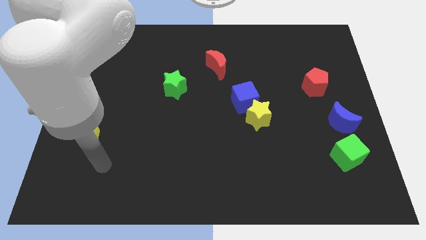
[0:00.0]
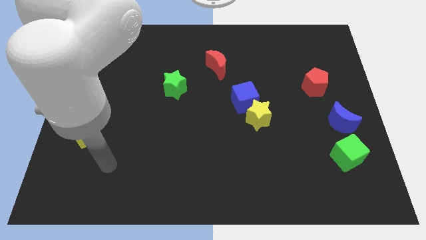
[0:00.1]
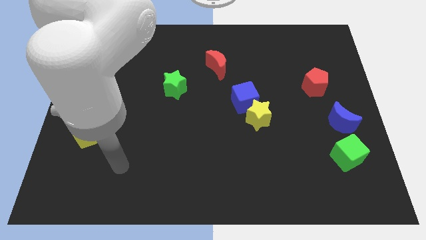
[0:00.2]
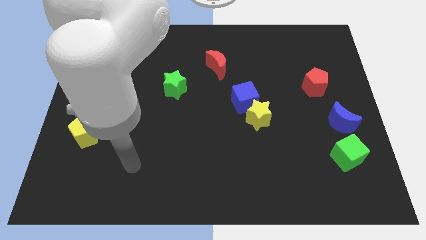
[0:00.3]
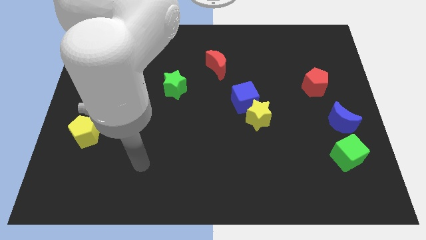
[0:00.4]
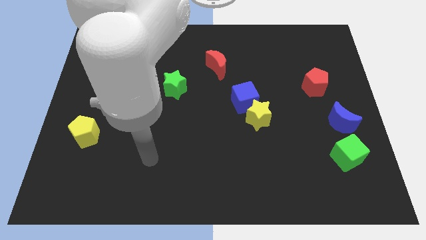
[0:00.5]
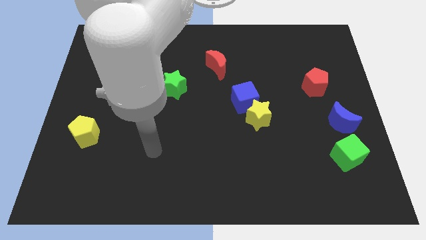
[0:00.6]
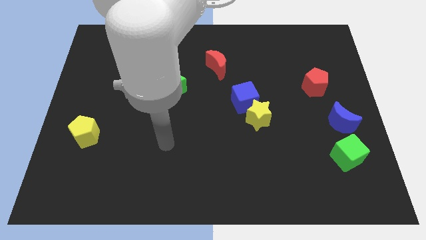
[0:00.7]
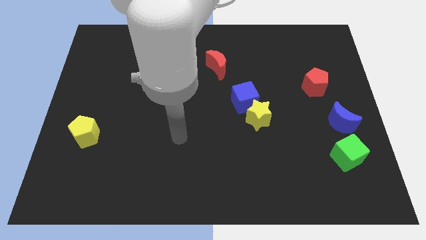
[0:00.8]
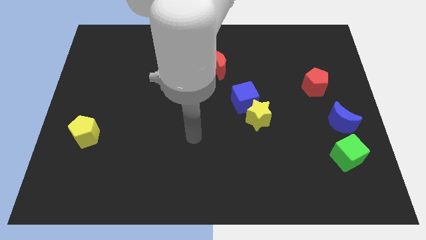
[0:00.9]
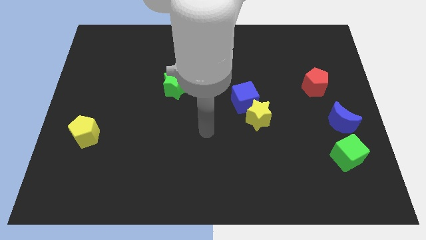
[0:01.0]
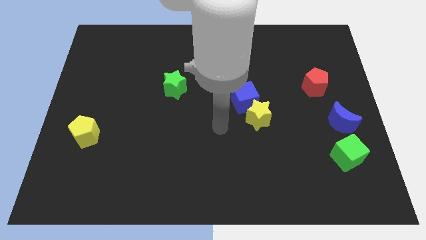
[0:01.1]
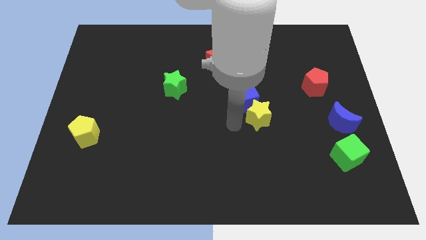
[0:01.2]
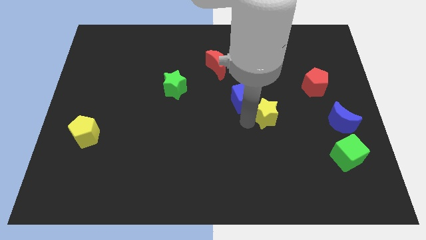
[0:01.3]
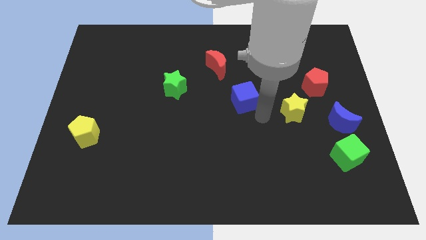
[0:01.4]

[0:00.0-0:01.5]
separate the blue cube from the yellow star

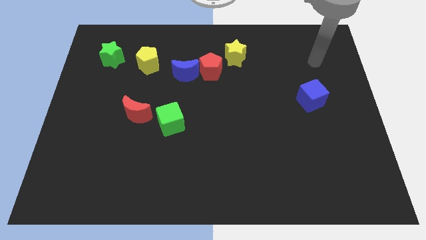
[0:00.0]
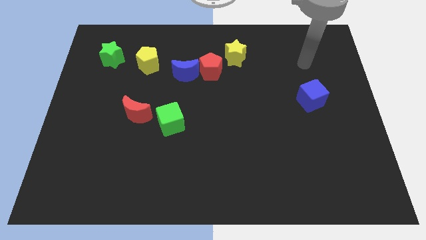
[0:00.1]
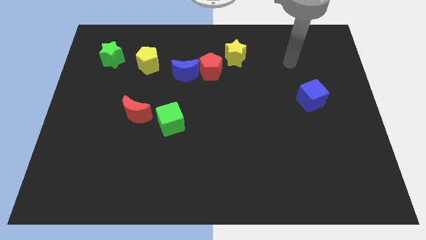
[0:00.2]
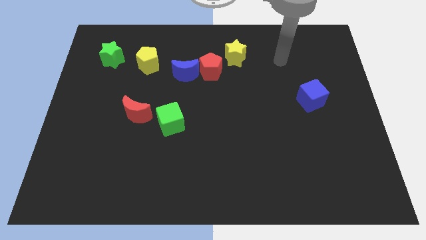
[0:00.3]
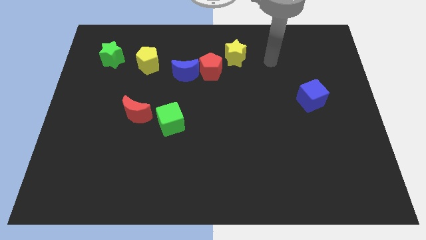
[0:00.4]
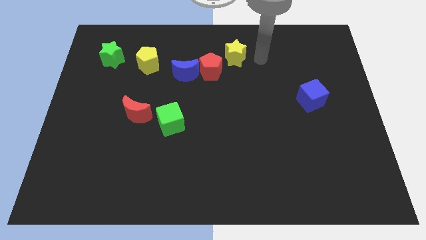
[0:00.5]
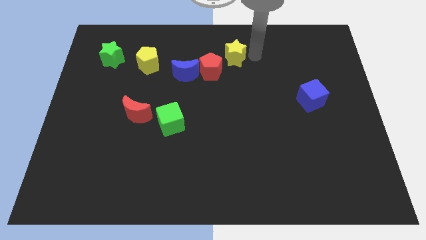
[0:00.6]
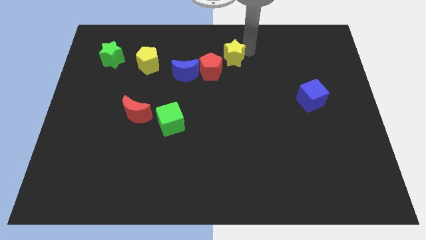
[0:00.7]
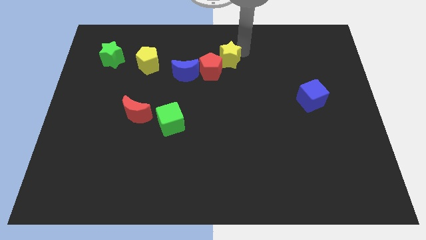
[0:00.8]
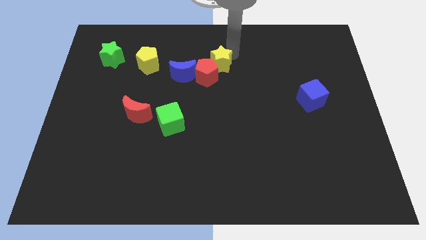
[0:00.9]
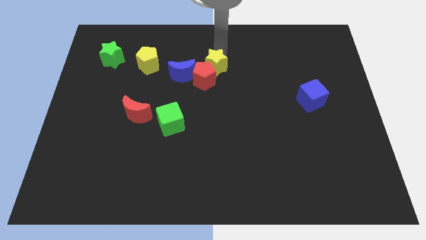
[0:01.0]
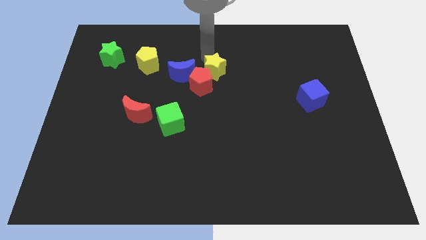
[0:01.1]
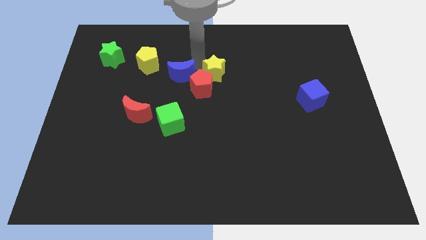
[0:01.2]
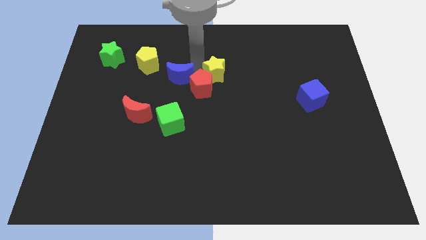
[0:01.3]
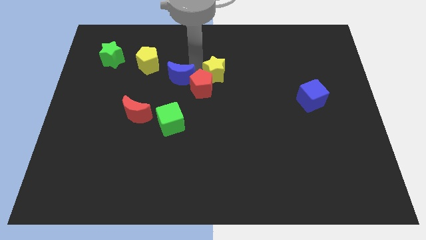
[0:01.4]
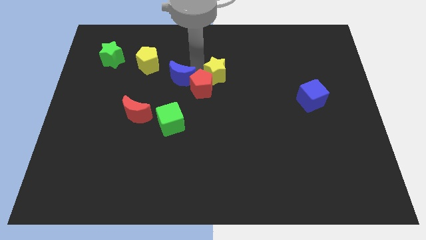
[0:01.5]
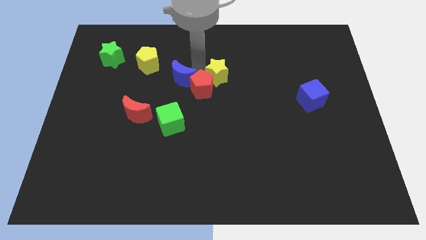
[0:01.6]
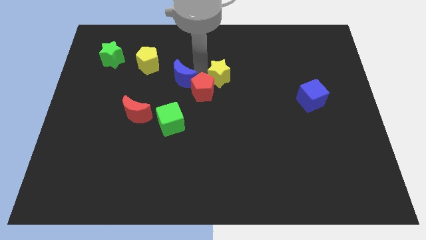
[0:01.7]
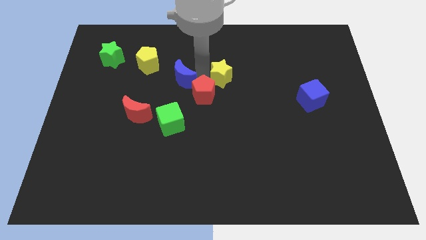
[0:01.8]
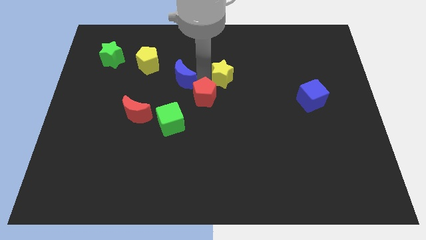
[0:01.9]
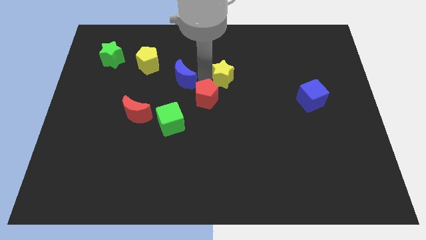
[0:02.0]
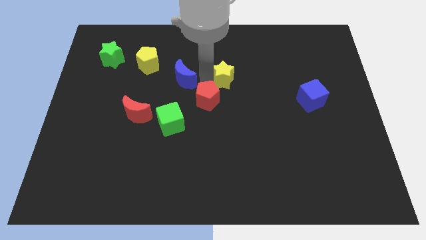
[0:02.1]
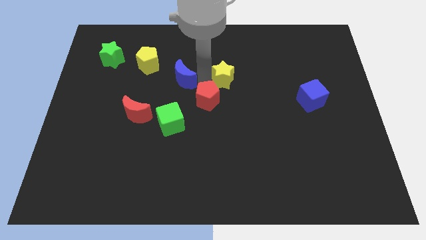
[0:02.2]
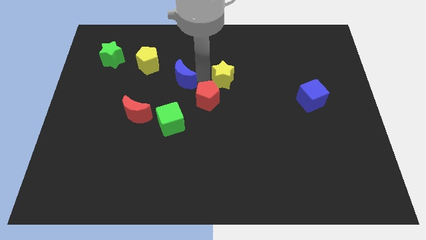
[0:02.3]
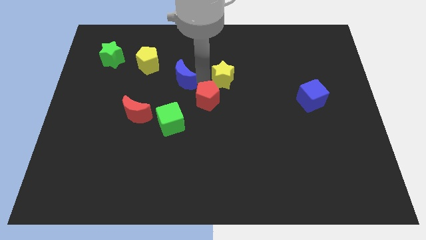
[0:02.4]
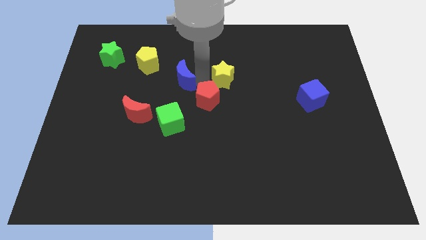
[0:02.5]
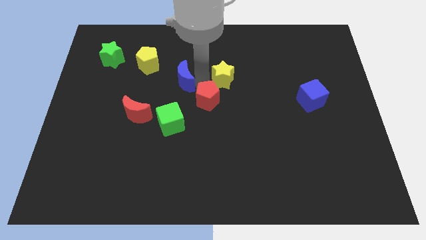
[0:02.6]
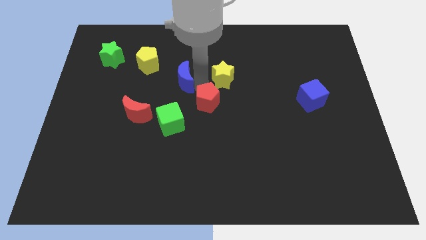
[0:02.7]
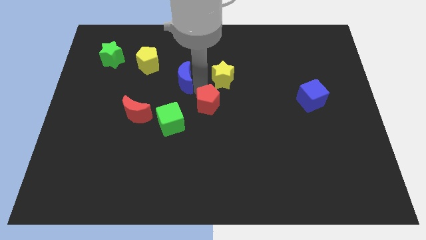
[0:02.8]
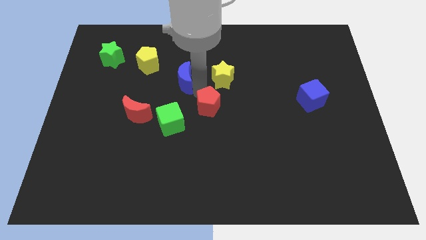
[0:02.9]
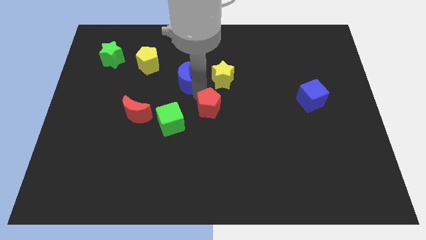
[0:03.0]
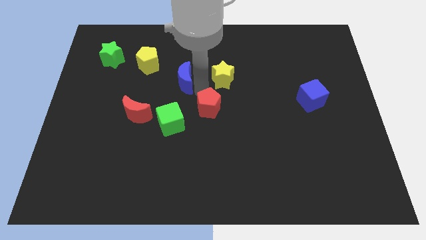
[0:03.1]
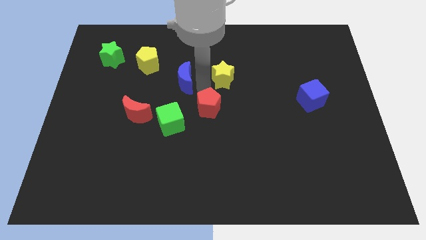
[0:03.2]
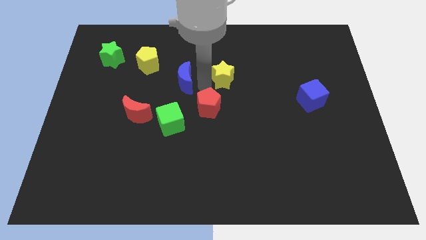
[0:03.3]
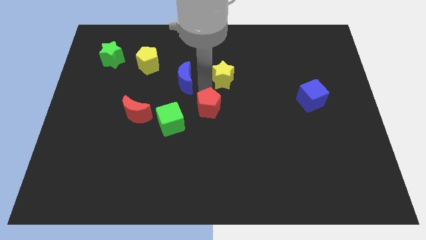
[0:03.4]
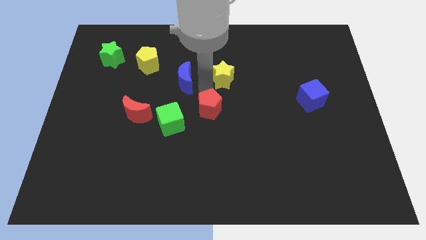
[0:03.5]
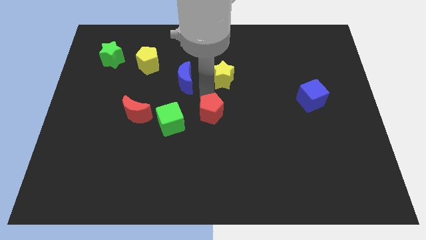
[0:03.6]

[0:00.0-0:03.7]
move the red pentagon away from the blue moon and yellow star

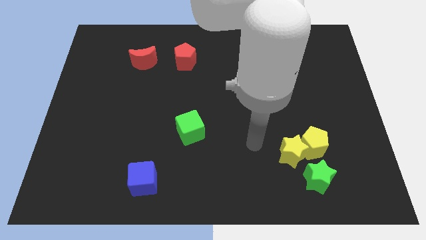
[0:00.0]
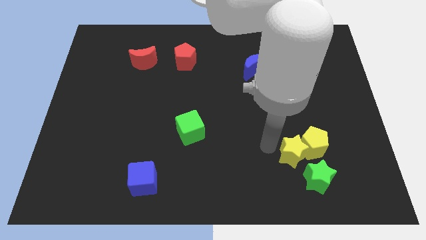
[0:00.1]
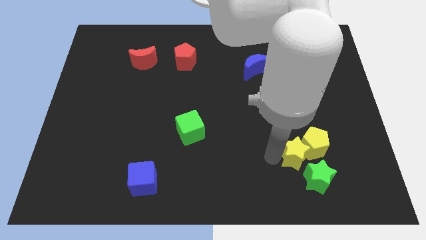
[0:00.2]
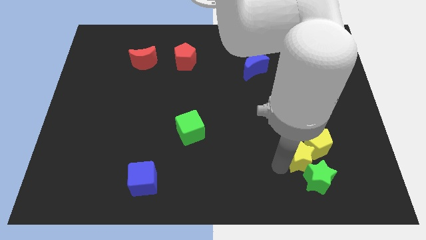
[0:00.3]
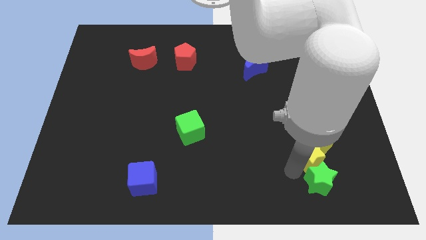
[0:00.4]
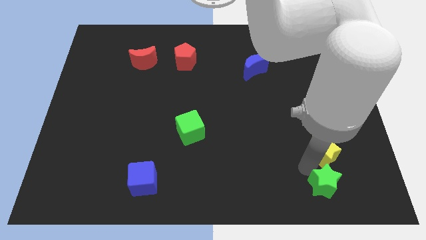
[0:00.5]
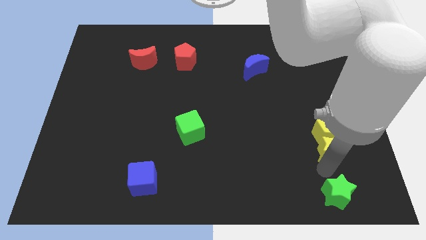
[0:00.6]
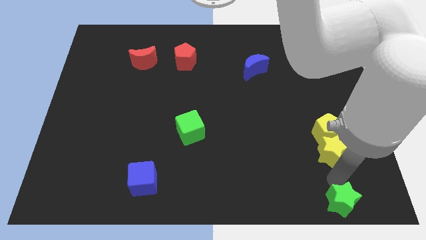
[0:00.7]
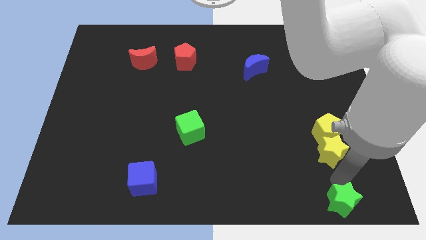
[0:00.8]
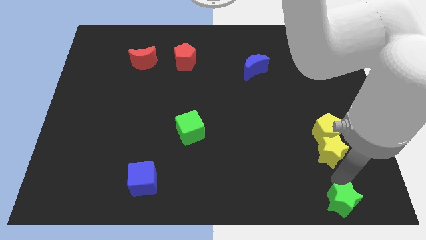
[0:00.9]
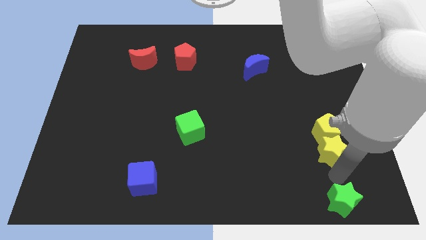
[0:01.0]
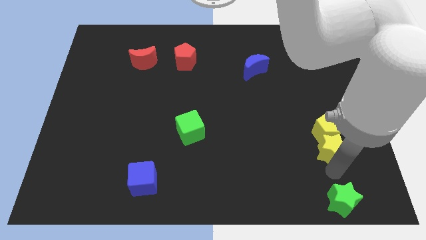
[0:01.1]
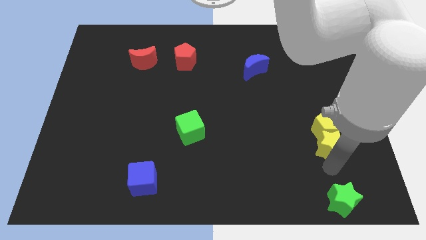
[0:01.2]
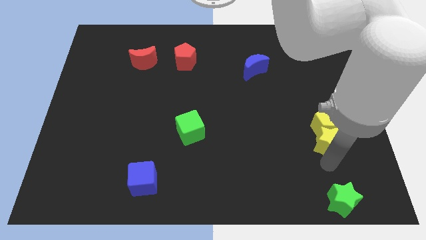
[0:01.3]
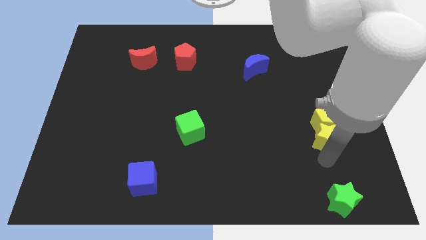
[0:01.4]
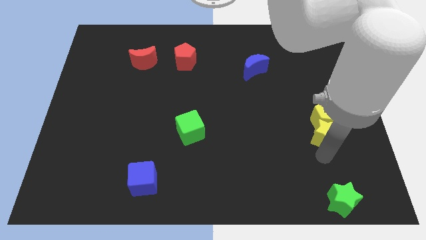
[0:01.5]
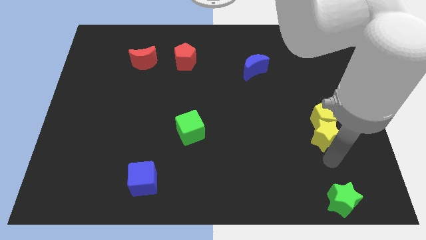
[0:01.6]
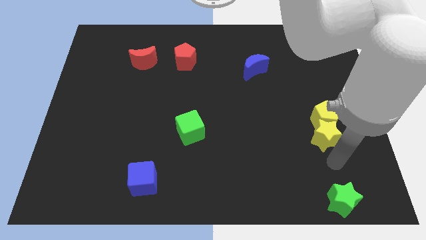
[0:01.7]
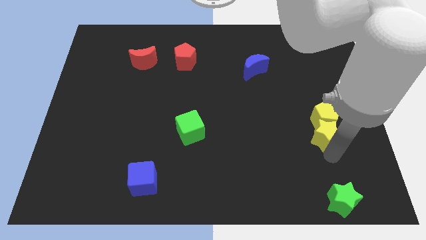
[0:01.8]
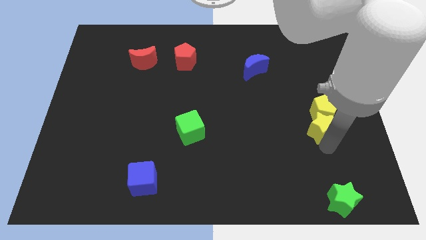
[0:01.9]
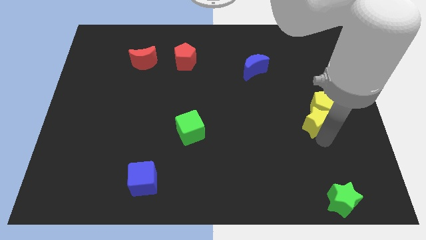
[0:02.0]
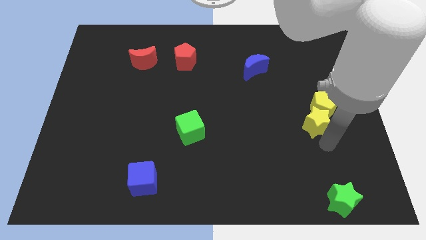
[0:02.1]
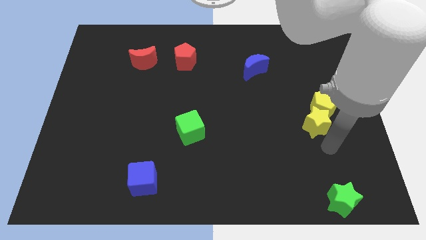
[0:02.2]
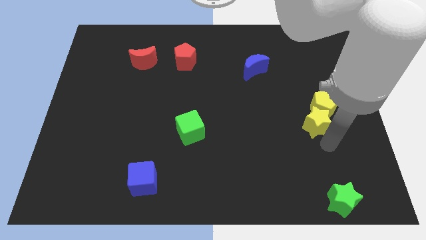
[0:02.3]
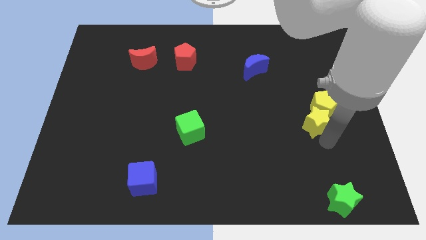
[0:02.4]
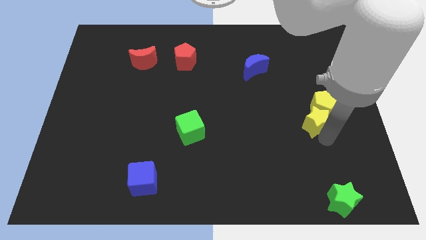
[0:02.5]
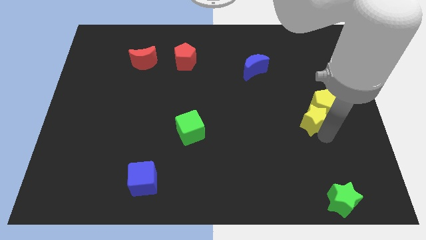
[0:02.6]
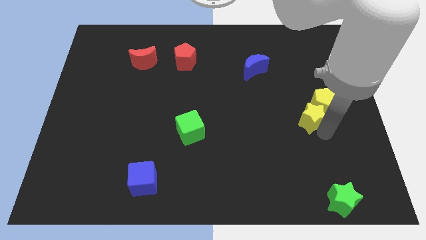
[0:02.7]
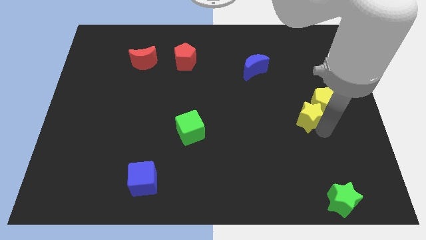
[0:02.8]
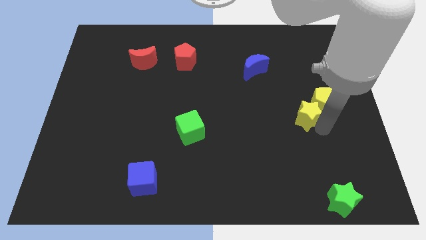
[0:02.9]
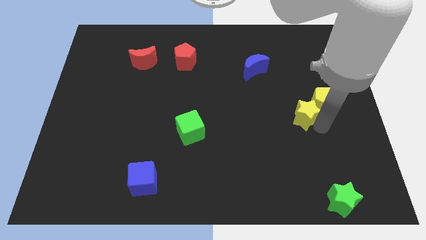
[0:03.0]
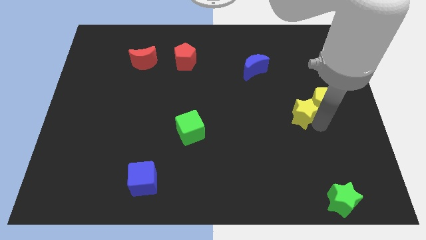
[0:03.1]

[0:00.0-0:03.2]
move the yellow star away from the yellow pentagon and green star

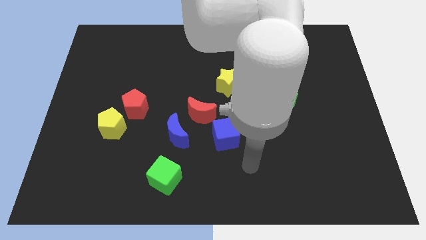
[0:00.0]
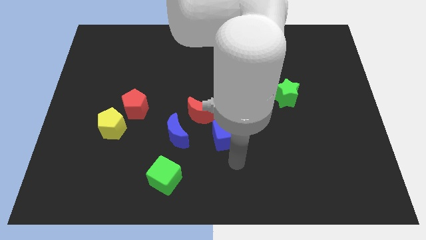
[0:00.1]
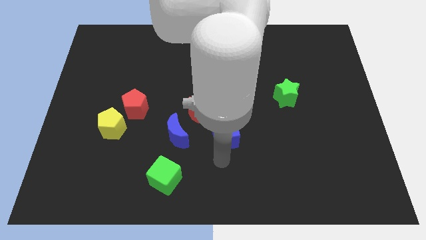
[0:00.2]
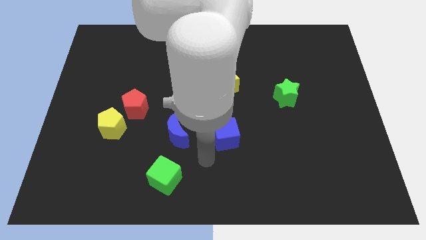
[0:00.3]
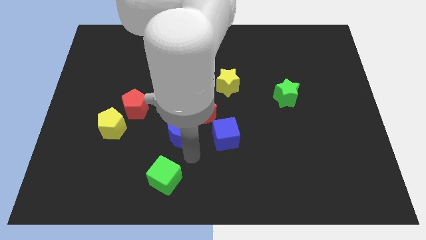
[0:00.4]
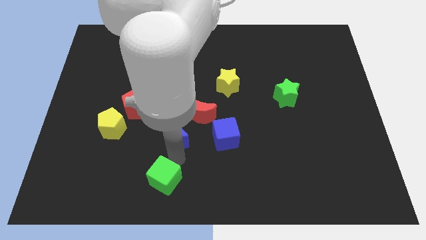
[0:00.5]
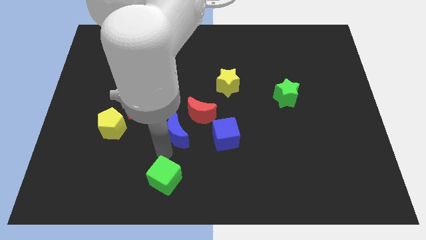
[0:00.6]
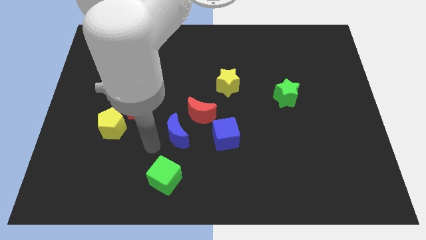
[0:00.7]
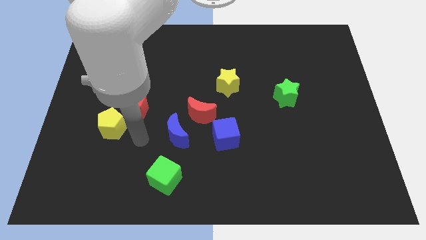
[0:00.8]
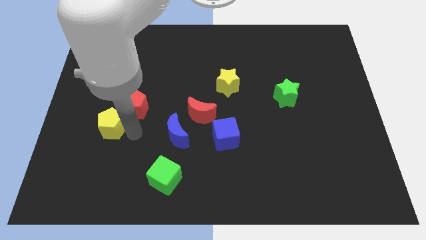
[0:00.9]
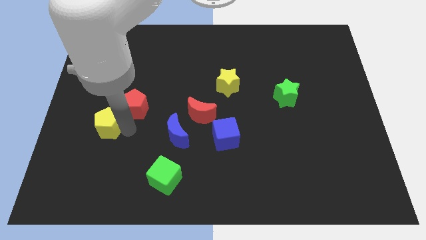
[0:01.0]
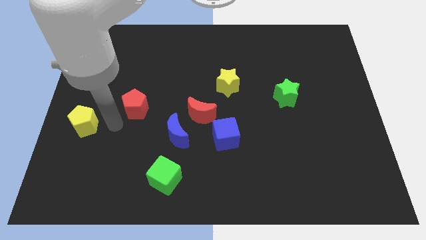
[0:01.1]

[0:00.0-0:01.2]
separate the red pentagon from the yellow pentagon
